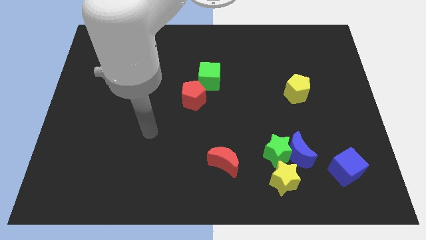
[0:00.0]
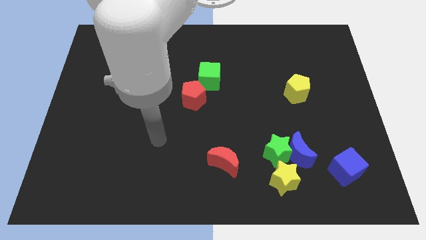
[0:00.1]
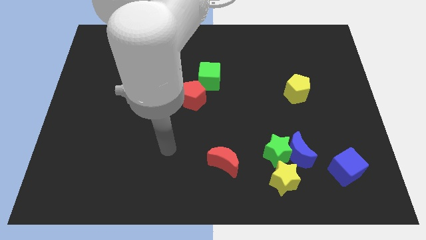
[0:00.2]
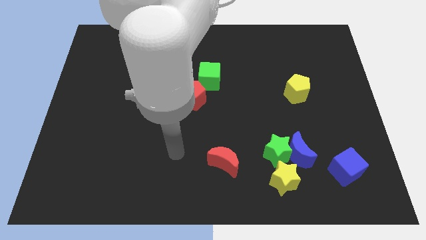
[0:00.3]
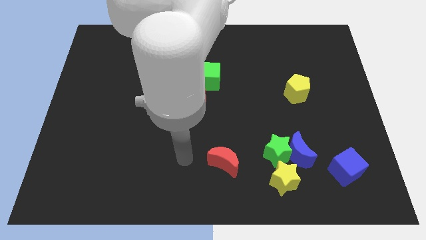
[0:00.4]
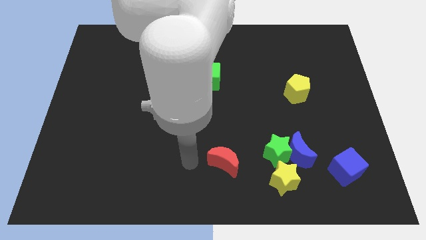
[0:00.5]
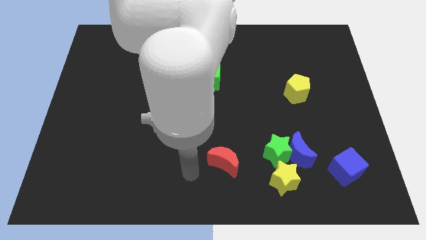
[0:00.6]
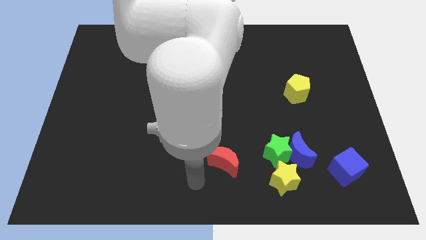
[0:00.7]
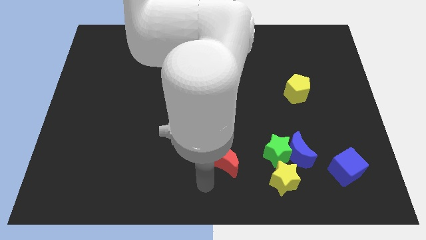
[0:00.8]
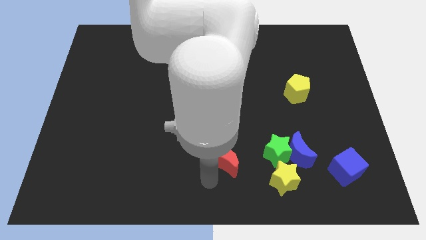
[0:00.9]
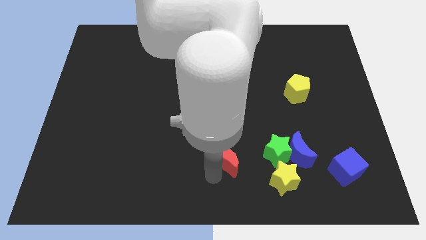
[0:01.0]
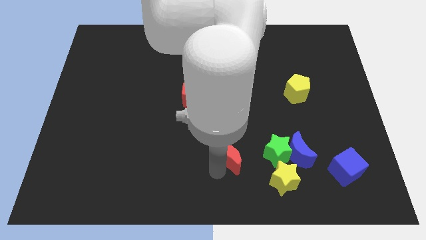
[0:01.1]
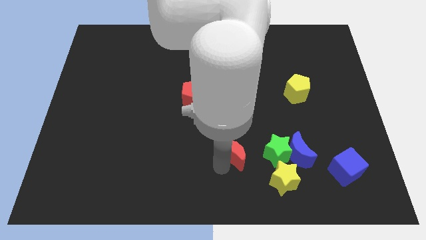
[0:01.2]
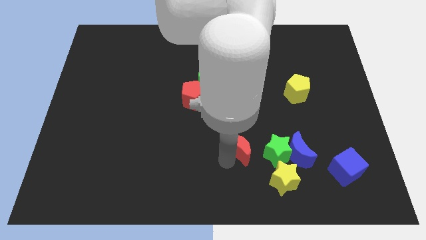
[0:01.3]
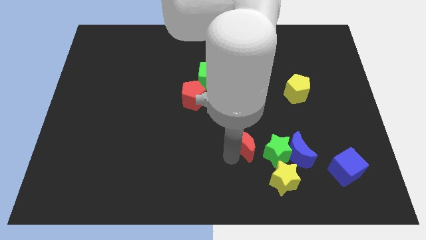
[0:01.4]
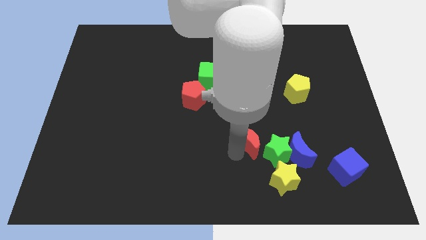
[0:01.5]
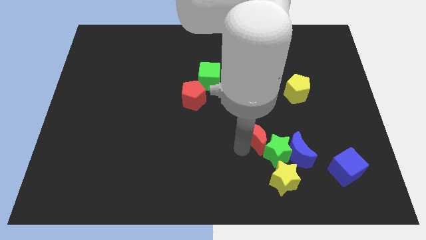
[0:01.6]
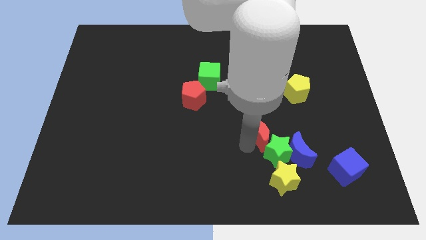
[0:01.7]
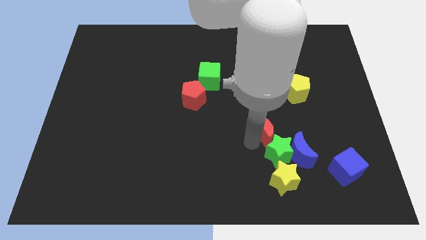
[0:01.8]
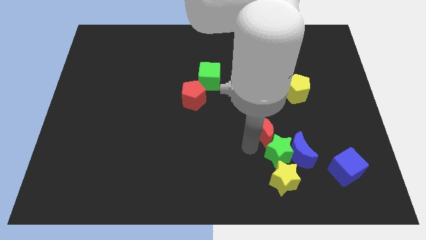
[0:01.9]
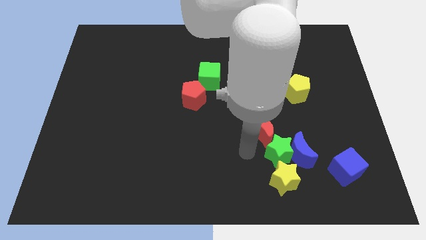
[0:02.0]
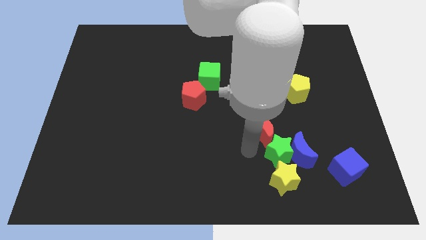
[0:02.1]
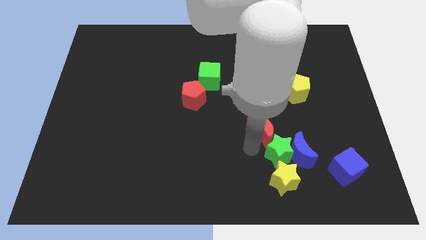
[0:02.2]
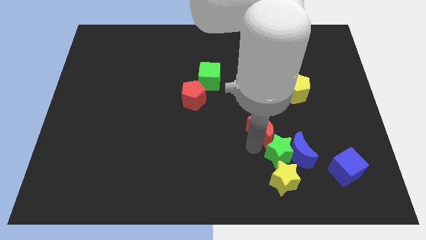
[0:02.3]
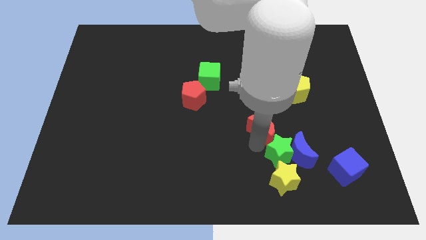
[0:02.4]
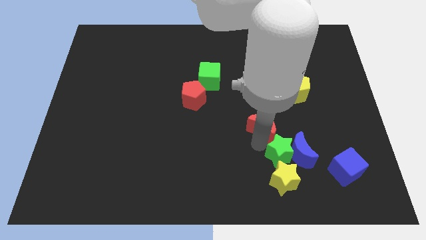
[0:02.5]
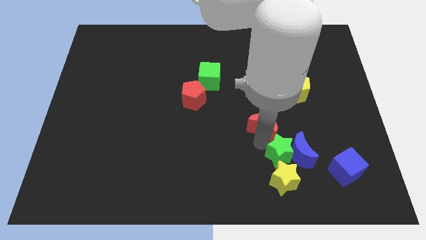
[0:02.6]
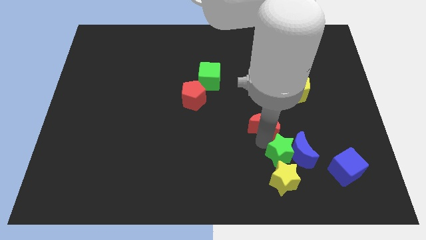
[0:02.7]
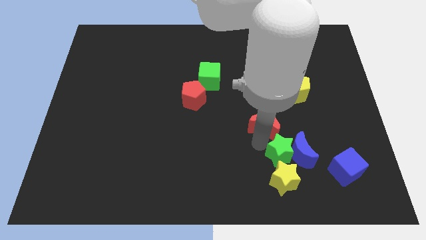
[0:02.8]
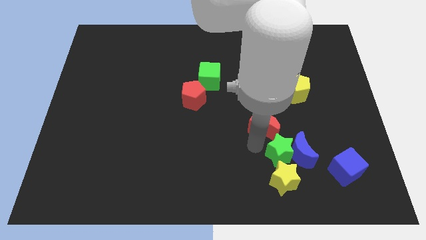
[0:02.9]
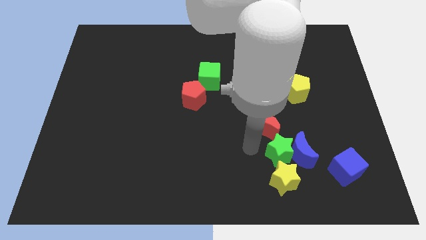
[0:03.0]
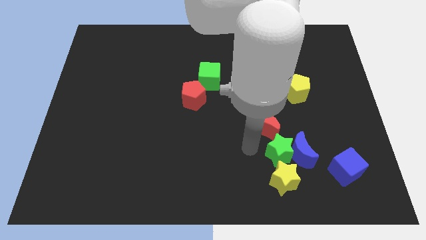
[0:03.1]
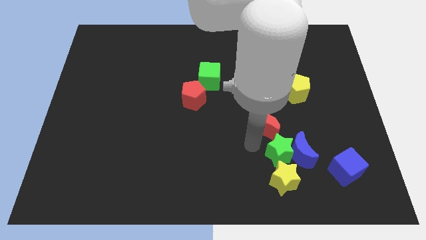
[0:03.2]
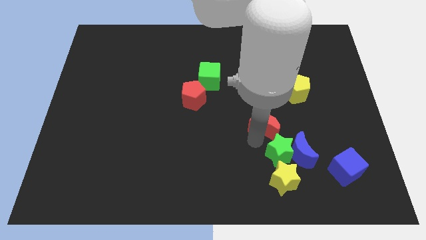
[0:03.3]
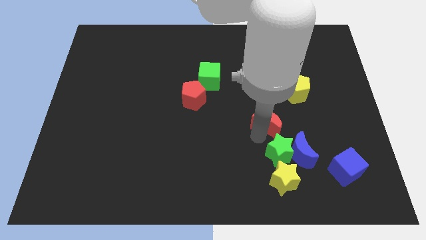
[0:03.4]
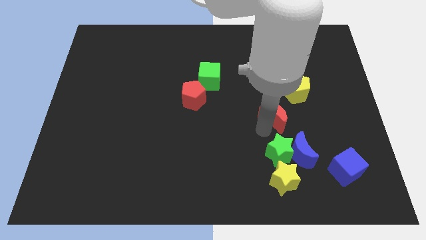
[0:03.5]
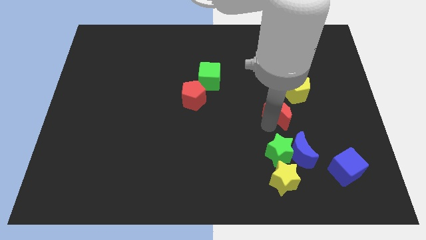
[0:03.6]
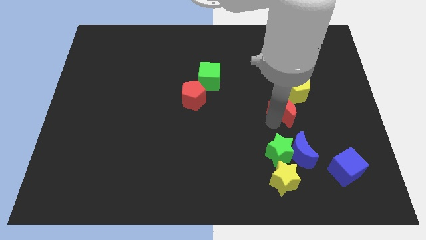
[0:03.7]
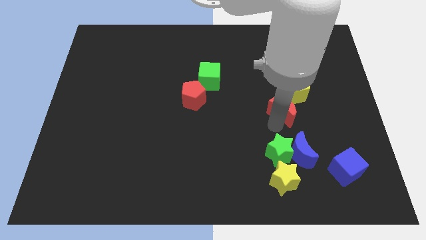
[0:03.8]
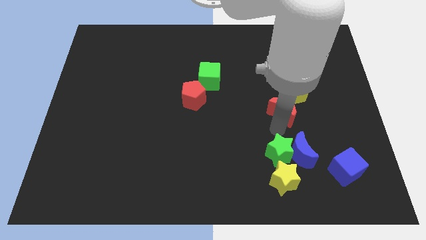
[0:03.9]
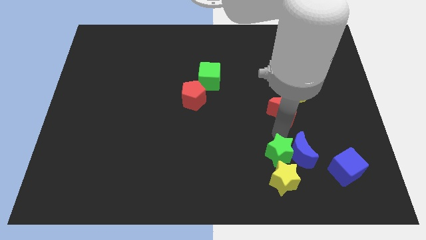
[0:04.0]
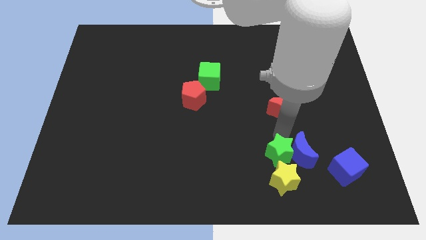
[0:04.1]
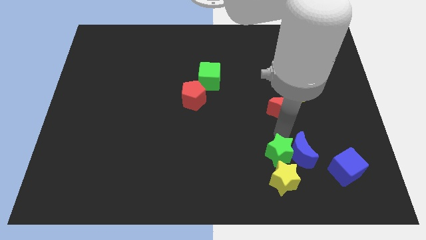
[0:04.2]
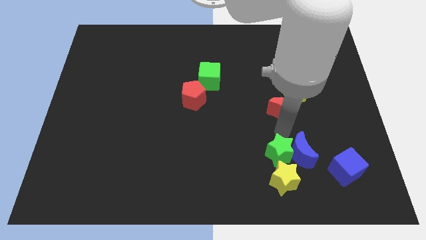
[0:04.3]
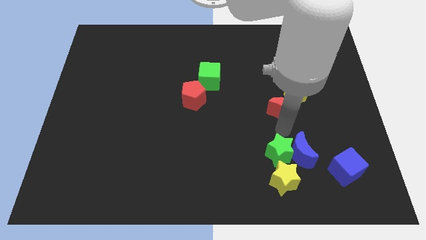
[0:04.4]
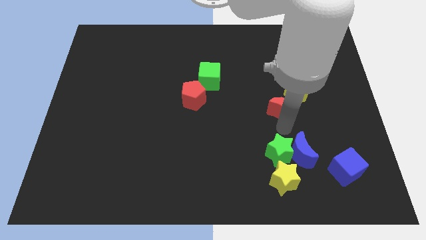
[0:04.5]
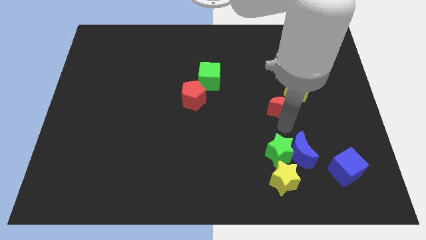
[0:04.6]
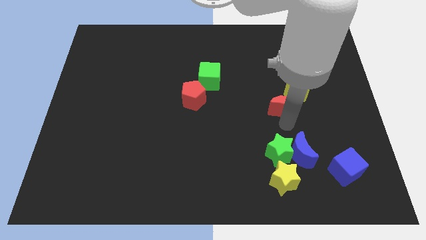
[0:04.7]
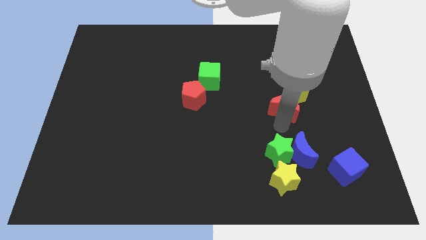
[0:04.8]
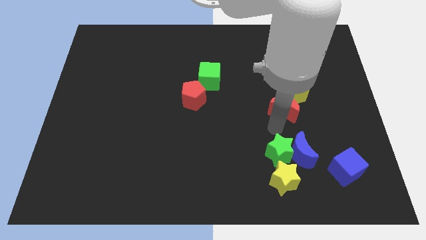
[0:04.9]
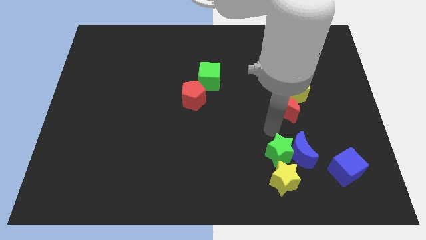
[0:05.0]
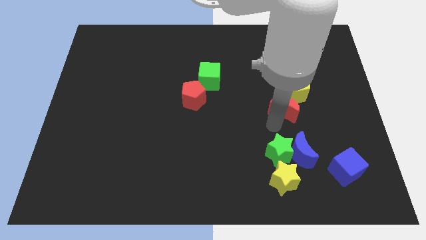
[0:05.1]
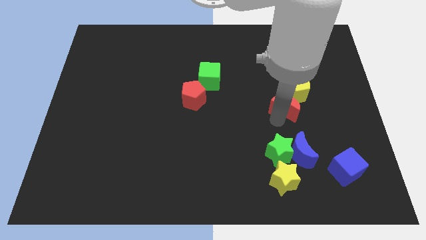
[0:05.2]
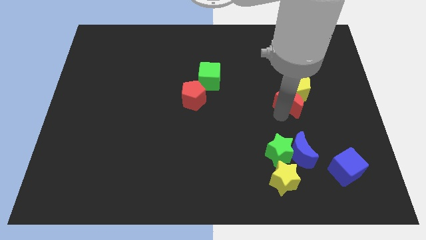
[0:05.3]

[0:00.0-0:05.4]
move the red moon close to the yellow pentagon

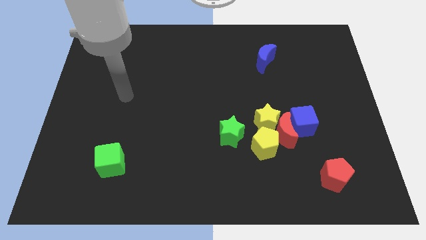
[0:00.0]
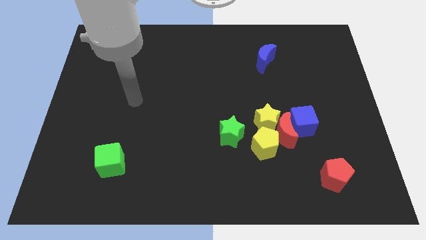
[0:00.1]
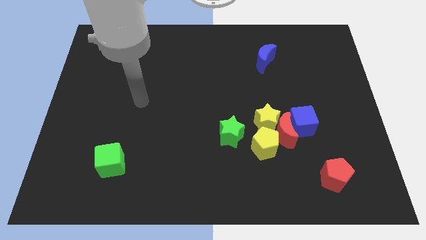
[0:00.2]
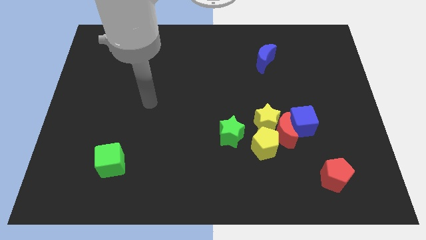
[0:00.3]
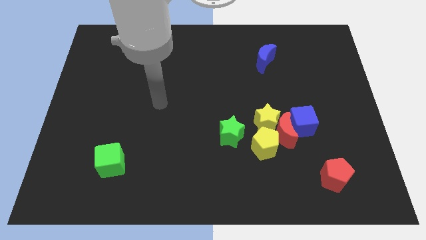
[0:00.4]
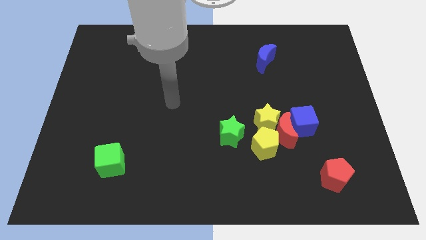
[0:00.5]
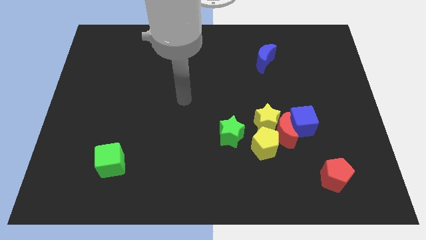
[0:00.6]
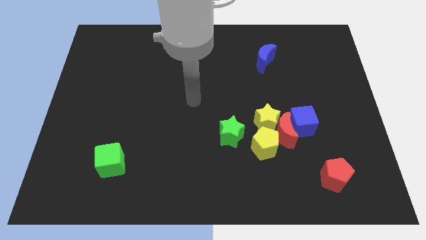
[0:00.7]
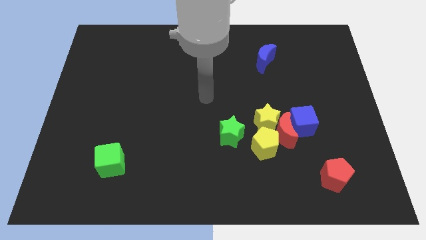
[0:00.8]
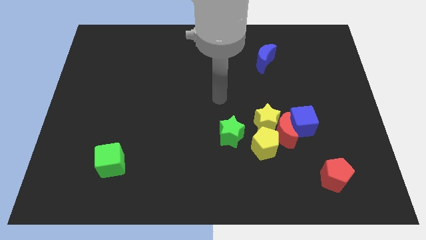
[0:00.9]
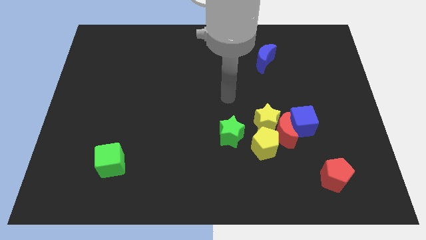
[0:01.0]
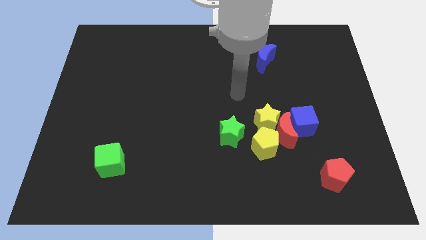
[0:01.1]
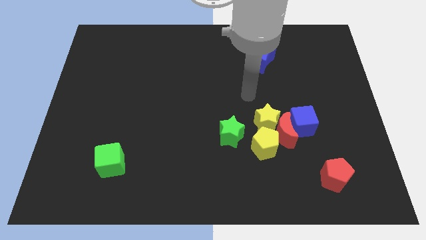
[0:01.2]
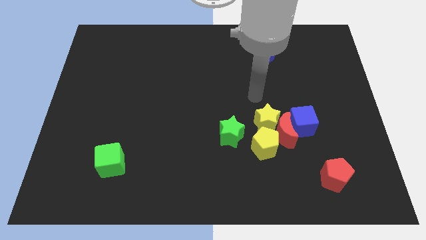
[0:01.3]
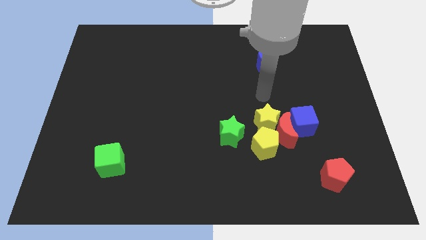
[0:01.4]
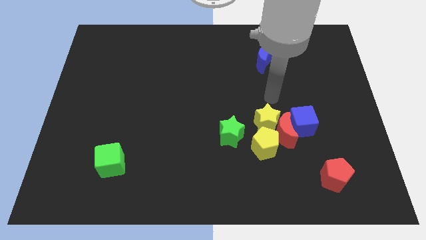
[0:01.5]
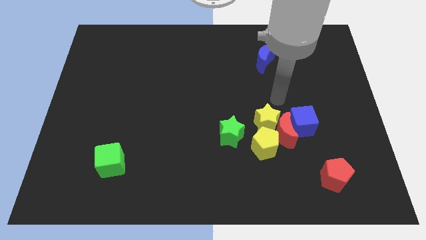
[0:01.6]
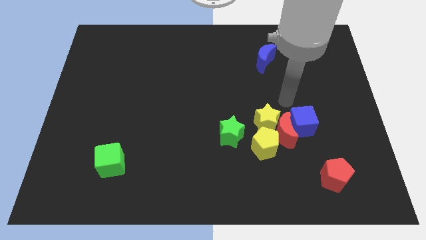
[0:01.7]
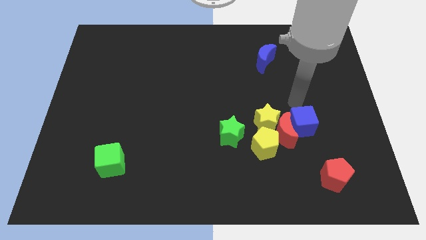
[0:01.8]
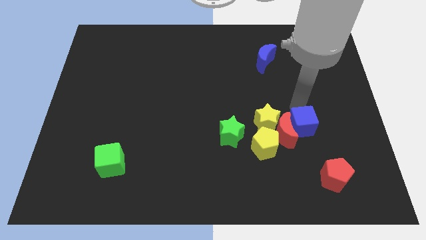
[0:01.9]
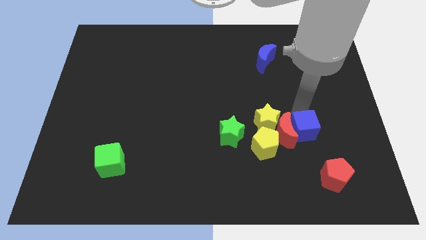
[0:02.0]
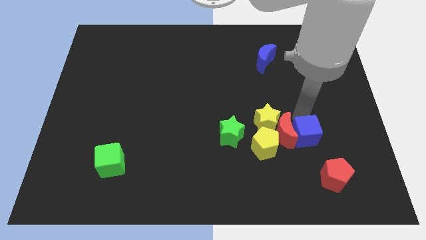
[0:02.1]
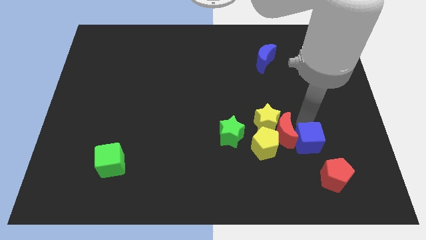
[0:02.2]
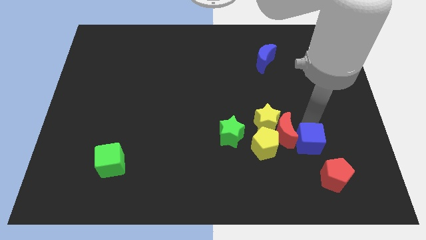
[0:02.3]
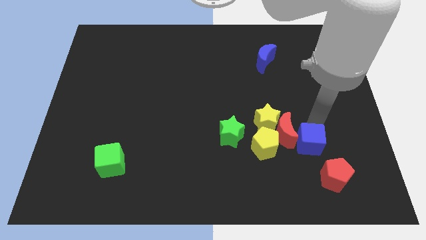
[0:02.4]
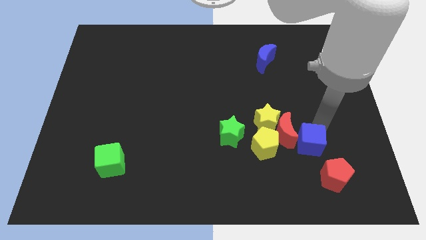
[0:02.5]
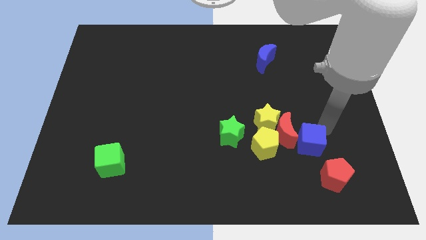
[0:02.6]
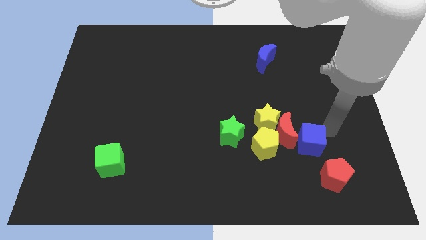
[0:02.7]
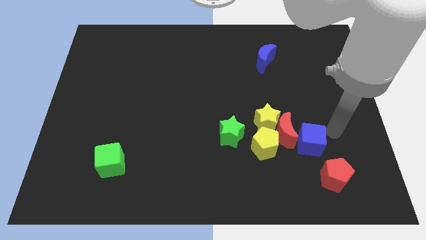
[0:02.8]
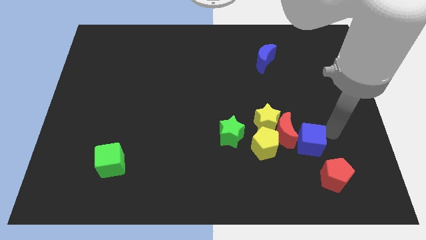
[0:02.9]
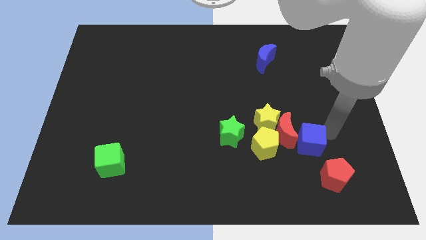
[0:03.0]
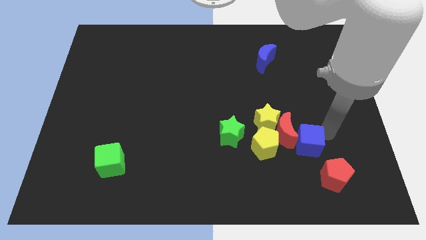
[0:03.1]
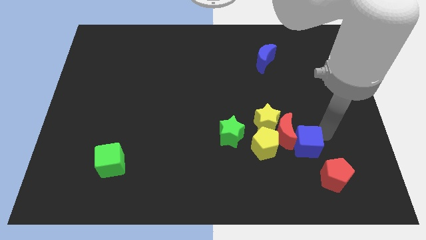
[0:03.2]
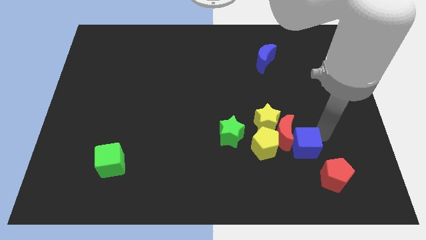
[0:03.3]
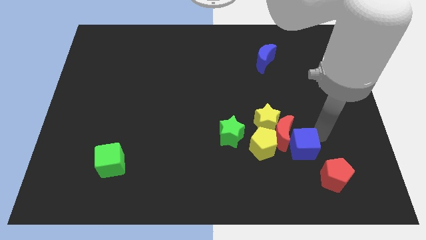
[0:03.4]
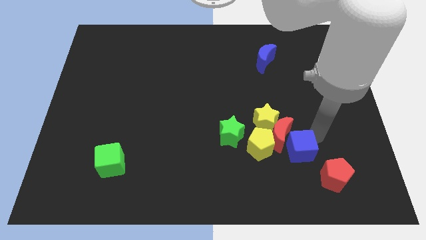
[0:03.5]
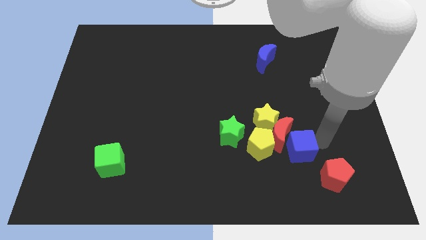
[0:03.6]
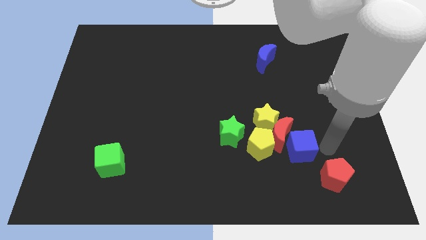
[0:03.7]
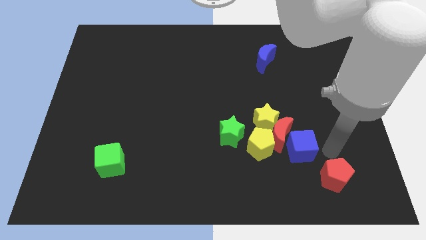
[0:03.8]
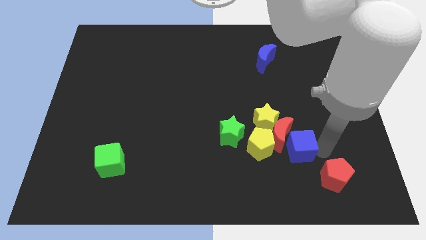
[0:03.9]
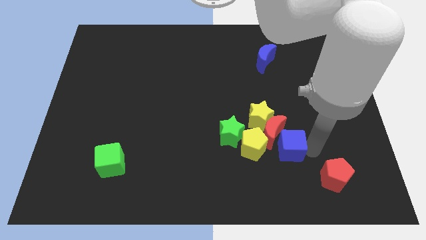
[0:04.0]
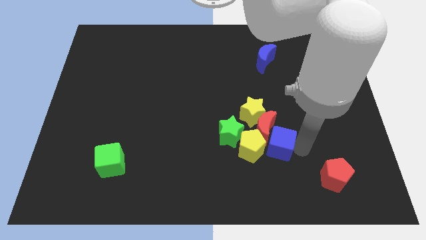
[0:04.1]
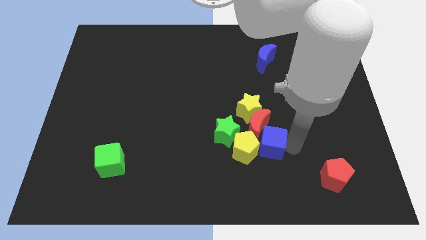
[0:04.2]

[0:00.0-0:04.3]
put the blue cube towards the yellow pentagon
